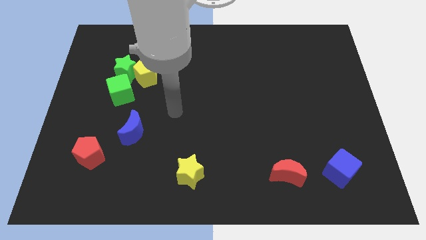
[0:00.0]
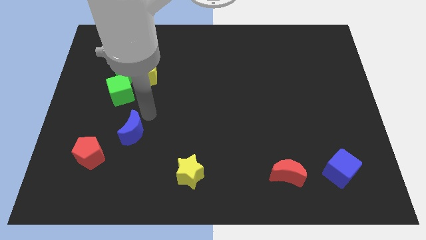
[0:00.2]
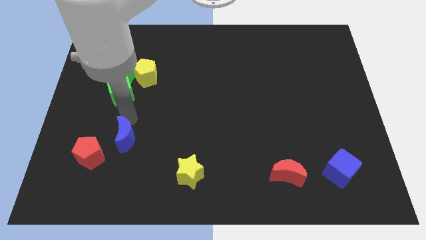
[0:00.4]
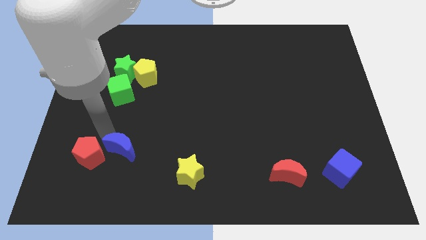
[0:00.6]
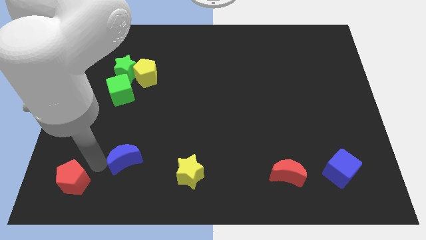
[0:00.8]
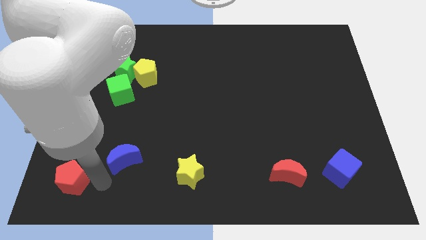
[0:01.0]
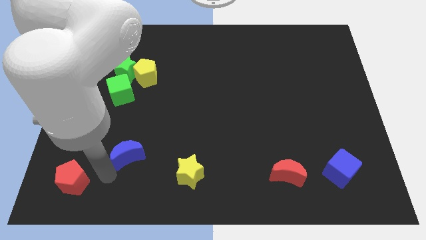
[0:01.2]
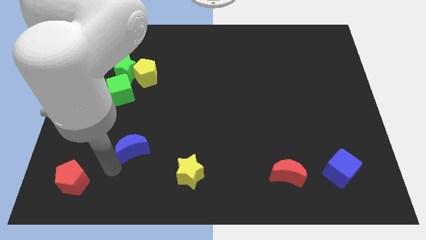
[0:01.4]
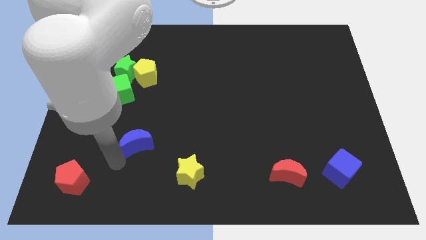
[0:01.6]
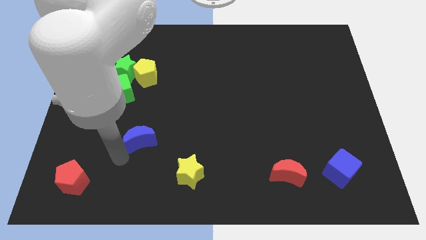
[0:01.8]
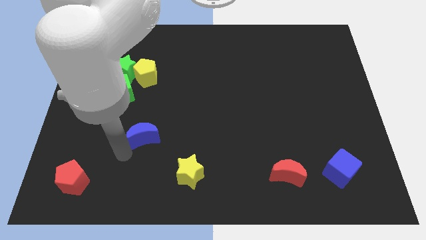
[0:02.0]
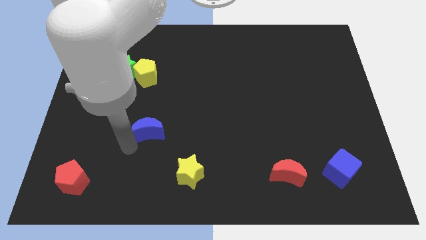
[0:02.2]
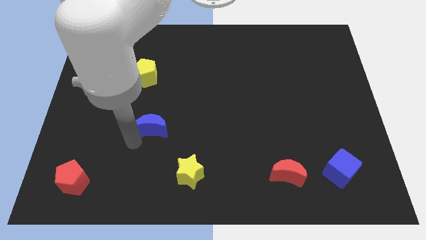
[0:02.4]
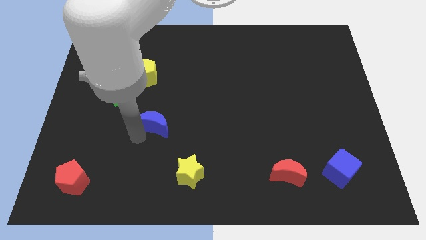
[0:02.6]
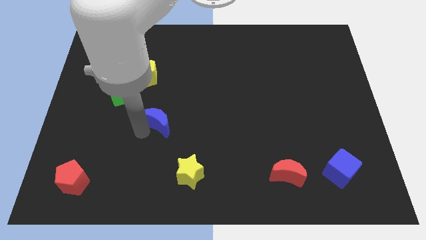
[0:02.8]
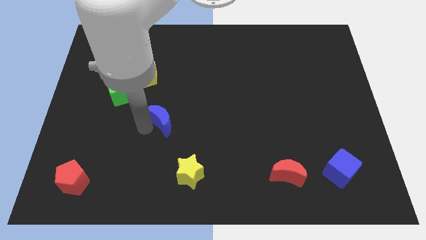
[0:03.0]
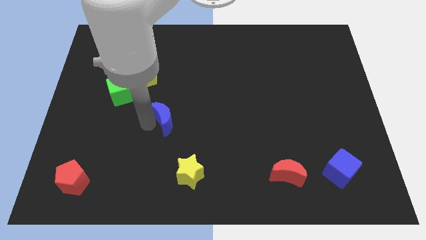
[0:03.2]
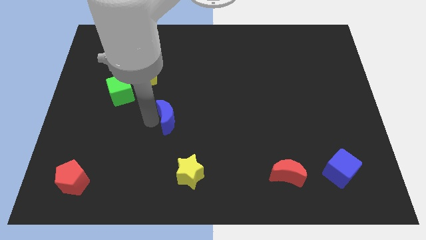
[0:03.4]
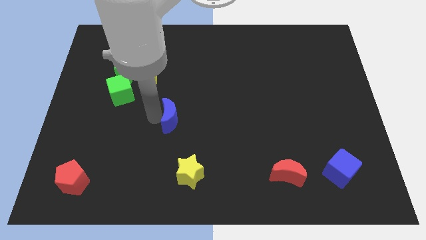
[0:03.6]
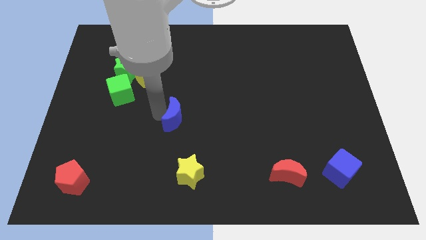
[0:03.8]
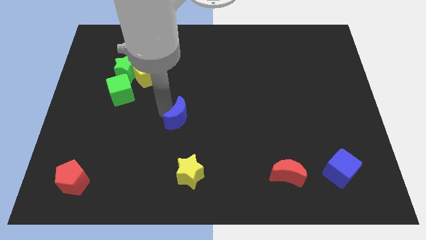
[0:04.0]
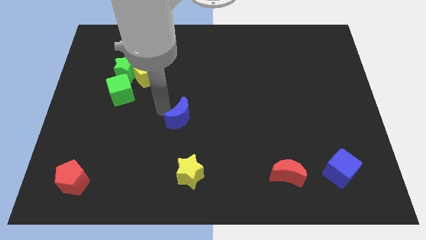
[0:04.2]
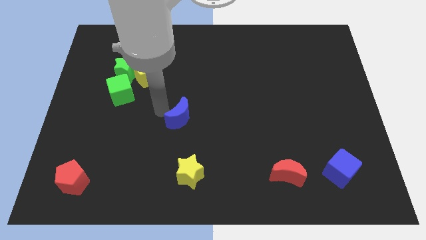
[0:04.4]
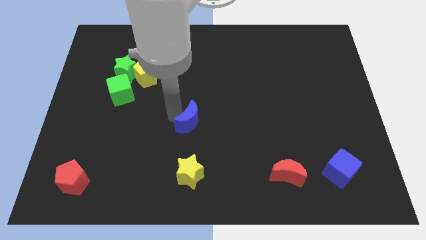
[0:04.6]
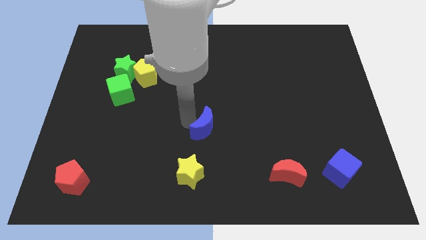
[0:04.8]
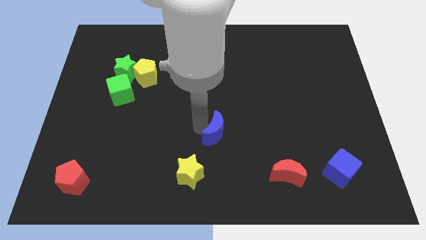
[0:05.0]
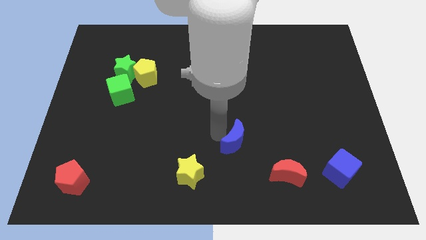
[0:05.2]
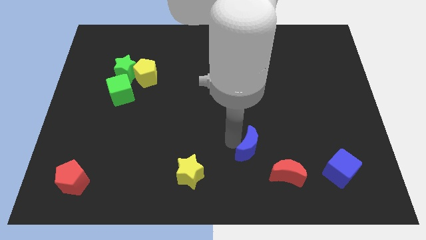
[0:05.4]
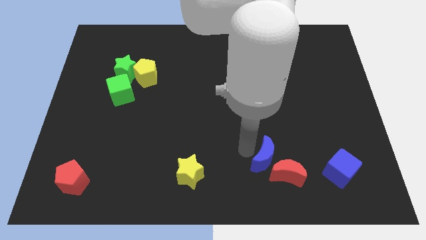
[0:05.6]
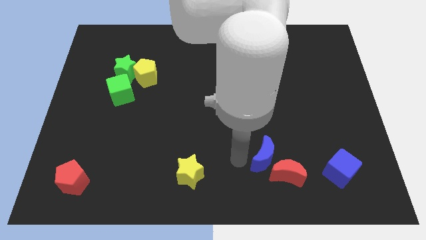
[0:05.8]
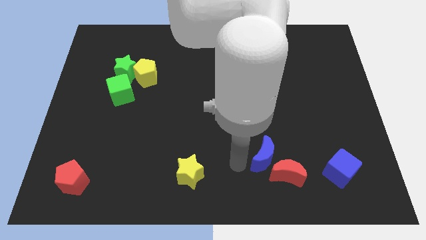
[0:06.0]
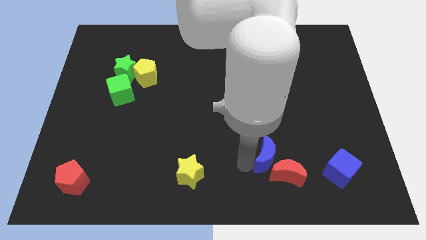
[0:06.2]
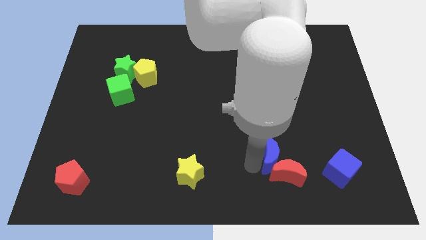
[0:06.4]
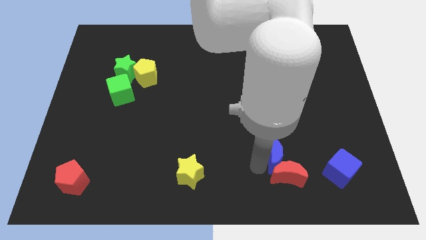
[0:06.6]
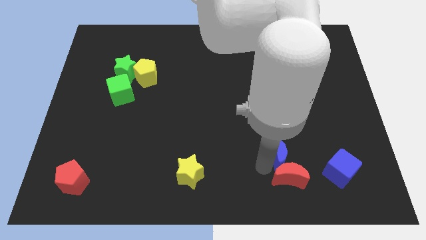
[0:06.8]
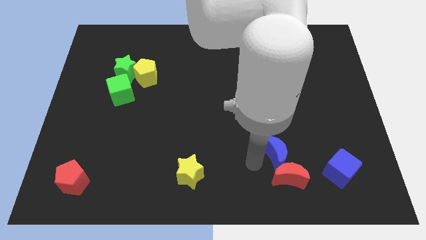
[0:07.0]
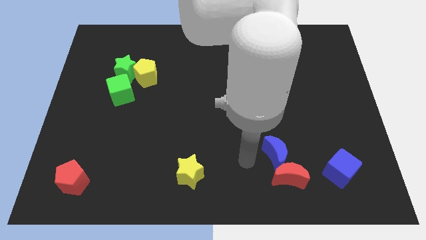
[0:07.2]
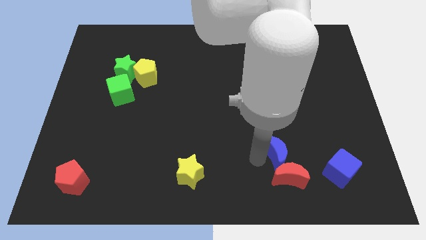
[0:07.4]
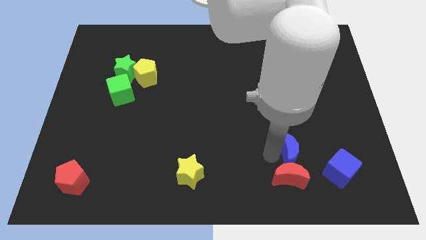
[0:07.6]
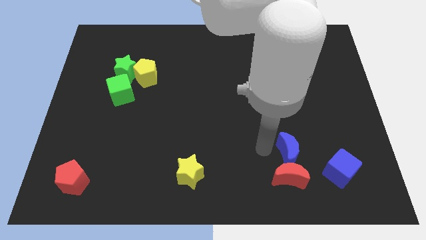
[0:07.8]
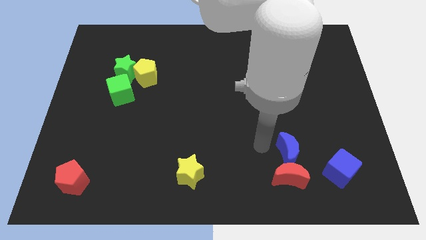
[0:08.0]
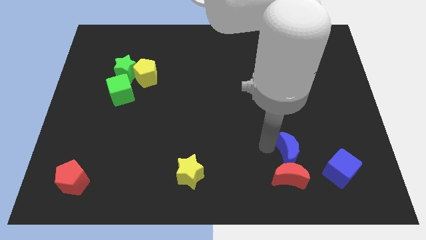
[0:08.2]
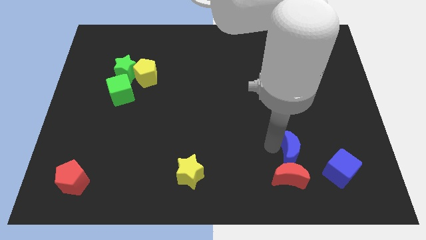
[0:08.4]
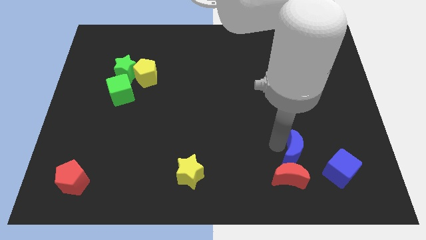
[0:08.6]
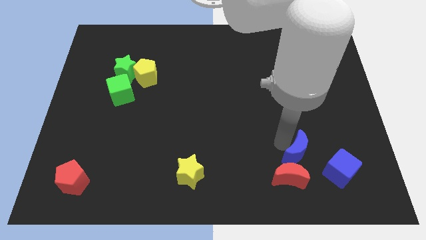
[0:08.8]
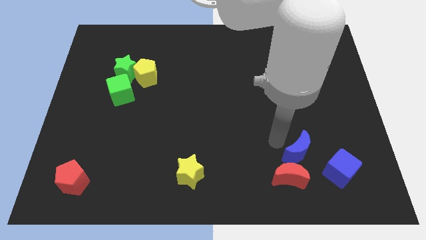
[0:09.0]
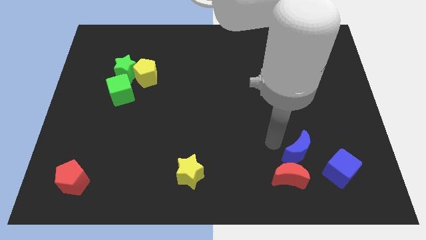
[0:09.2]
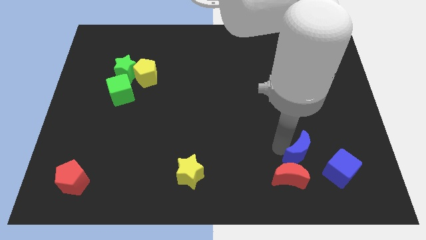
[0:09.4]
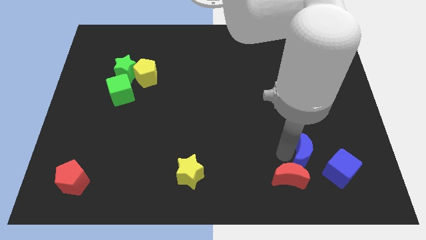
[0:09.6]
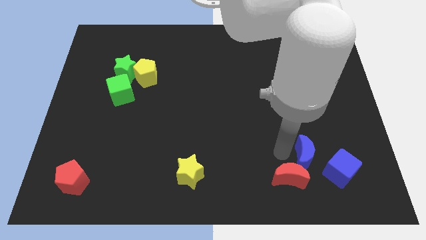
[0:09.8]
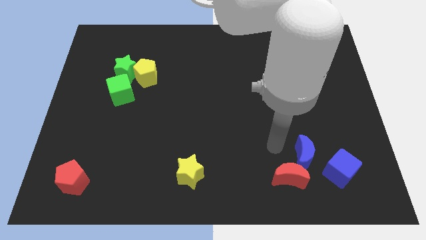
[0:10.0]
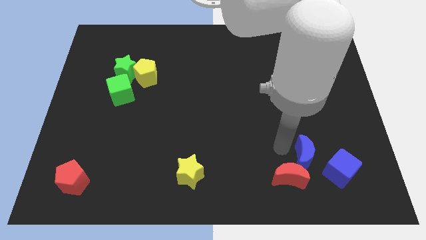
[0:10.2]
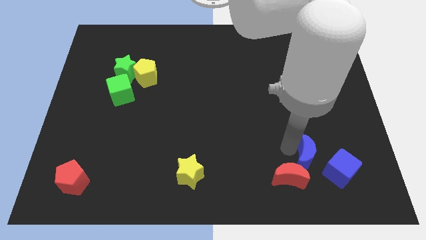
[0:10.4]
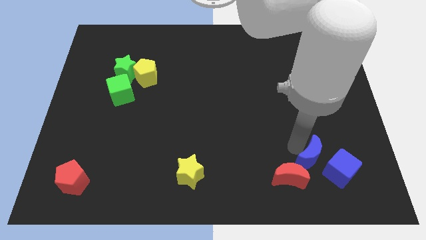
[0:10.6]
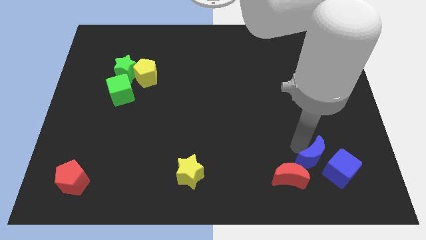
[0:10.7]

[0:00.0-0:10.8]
move the blue moon towards the blue cube
